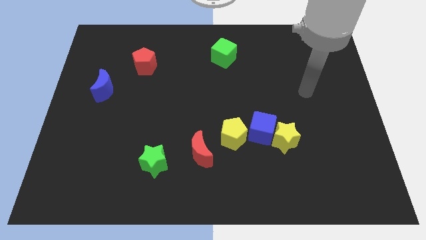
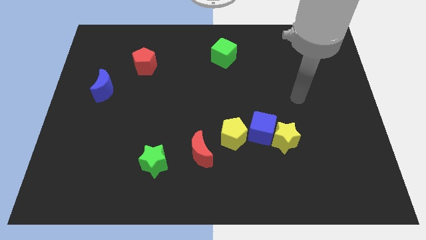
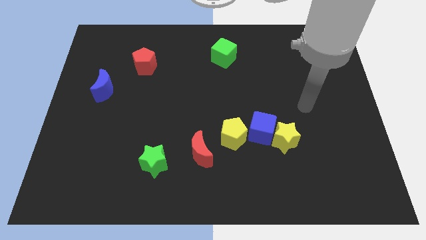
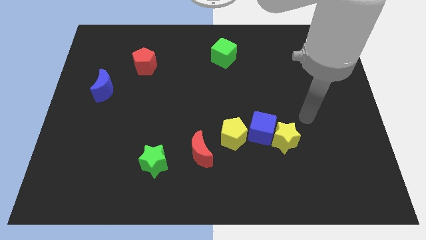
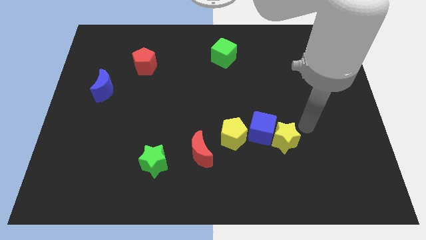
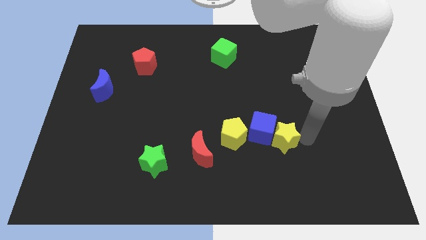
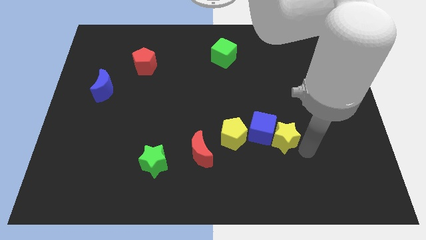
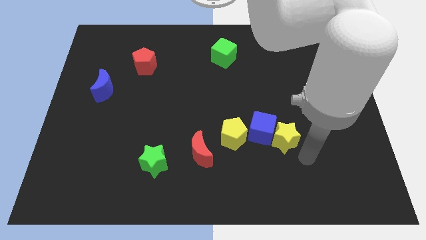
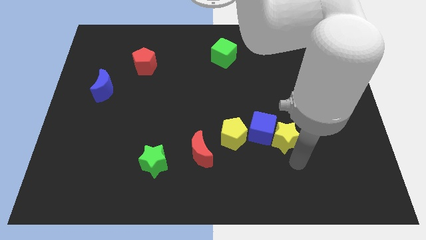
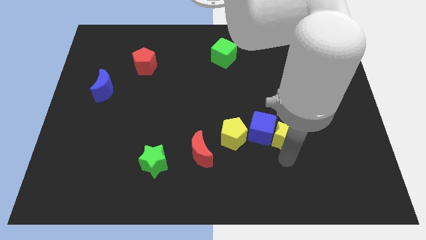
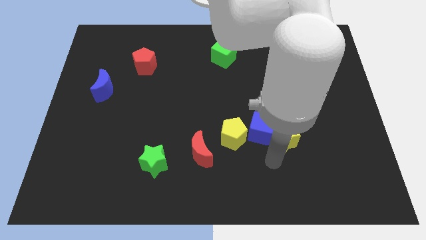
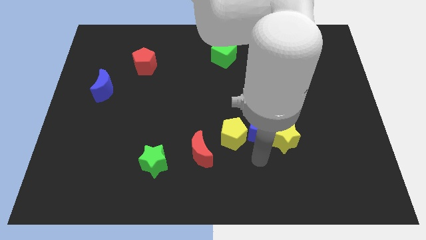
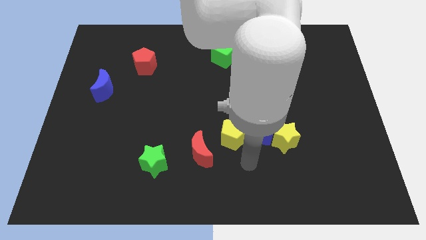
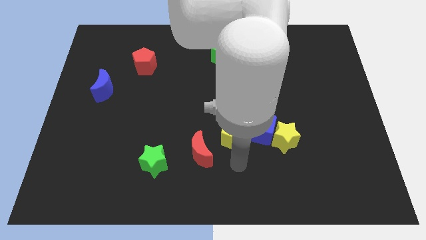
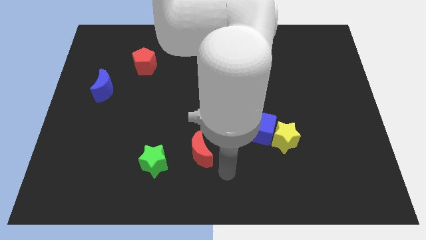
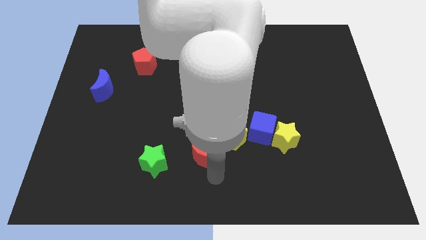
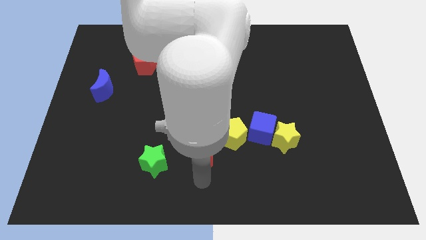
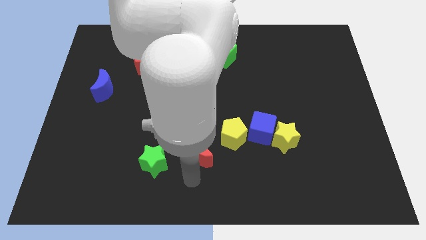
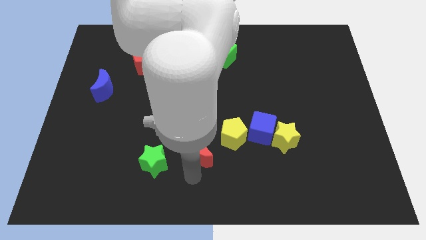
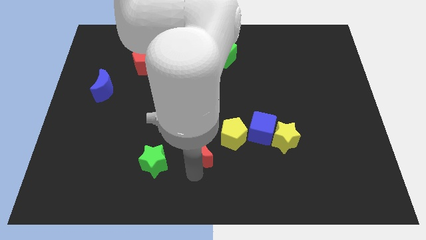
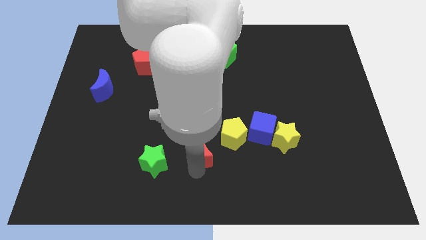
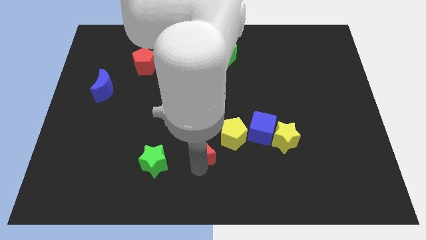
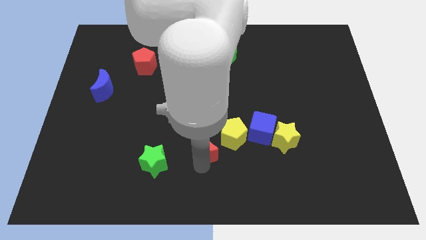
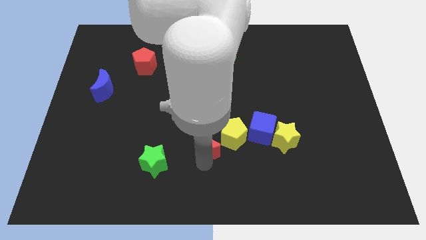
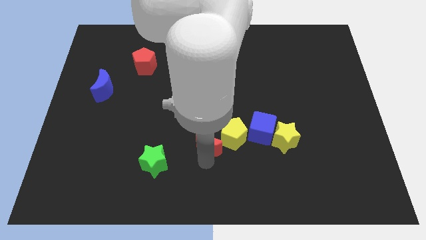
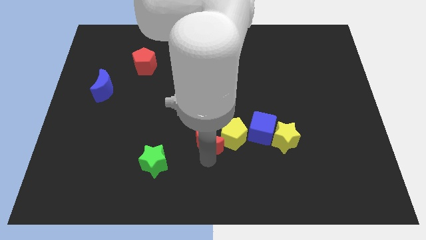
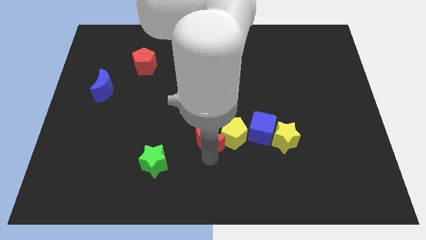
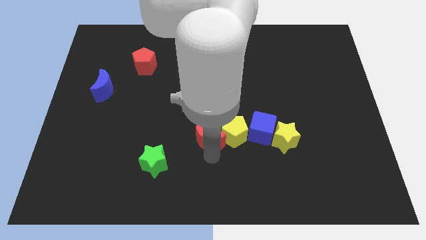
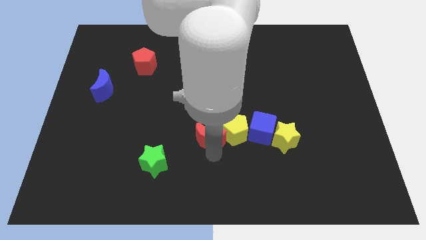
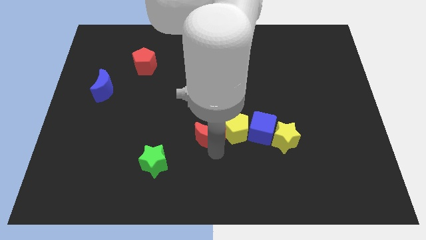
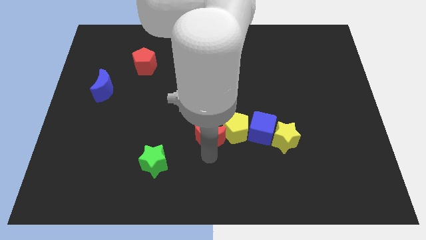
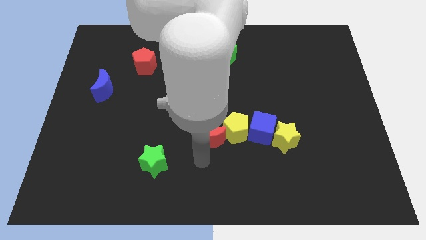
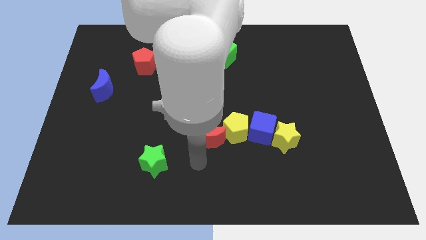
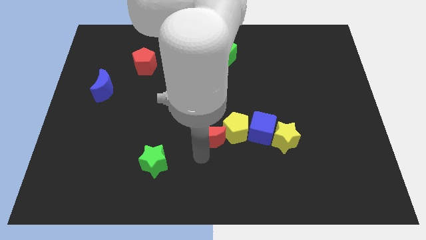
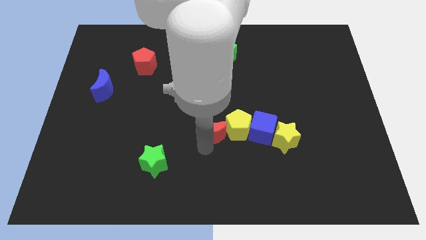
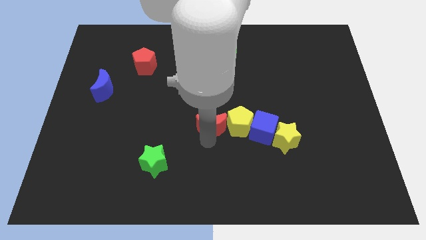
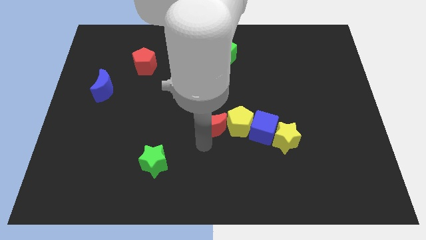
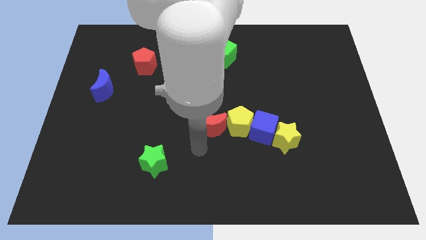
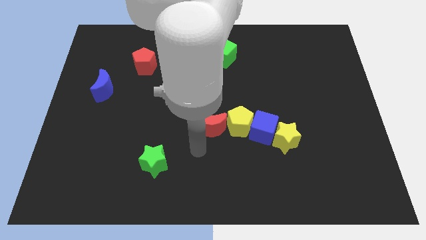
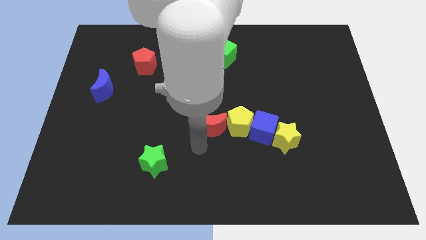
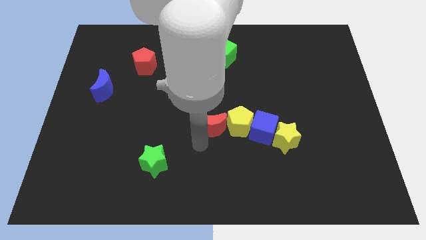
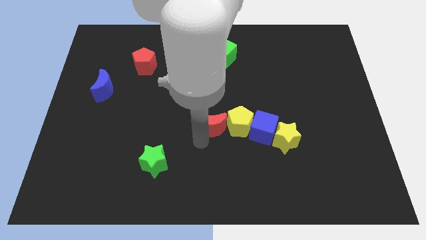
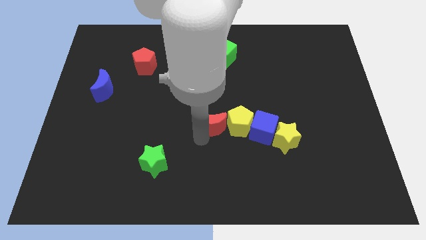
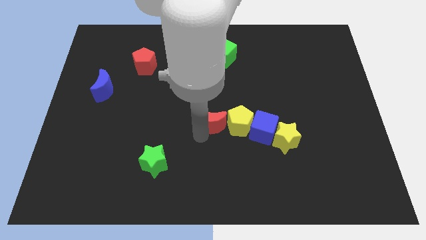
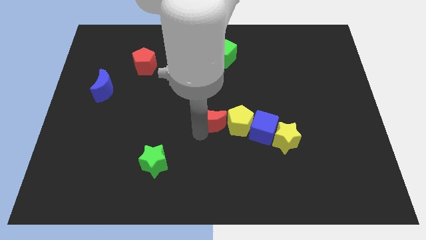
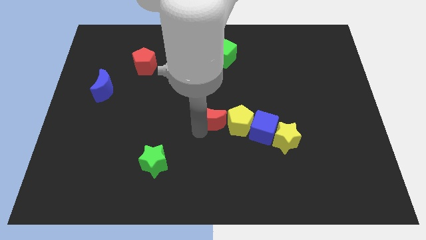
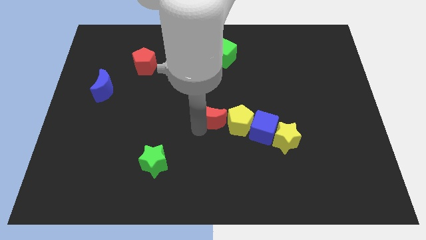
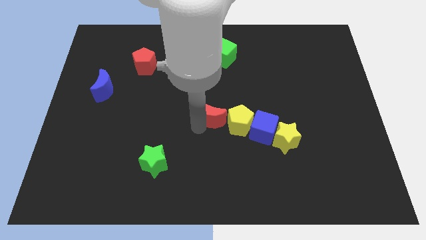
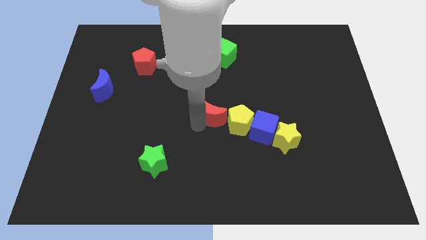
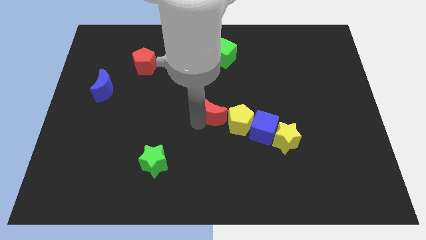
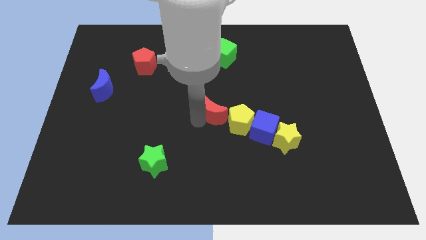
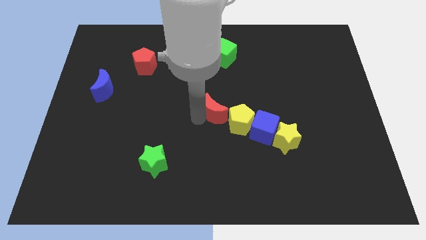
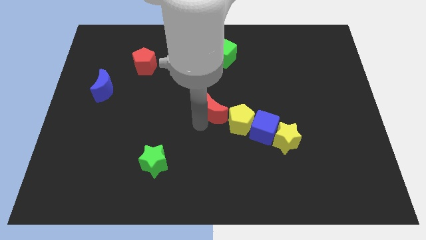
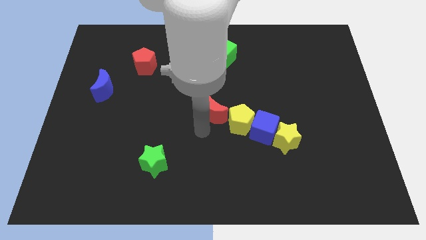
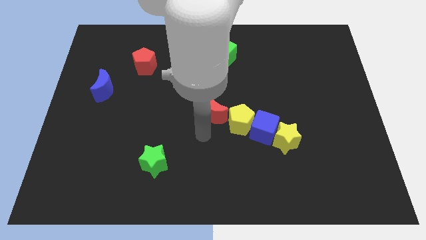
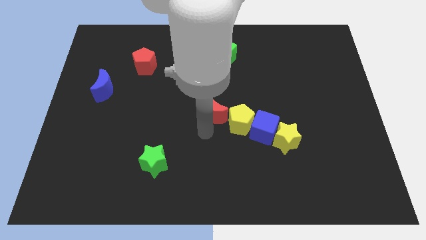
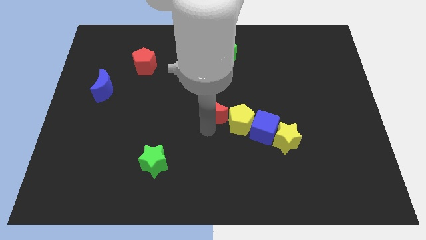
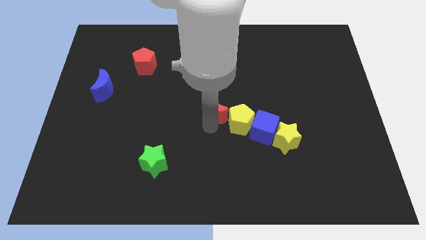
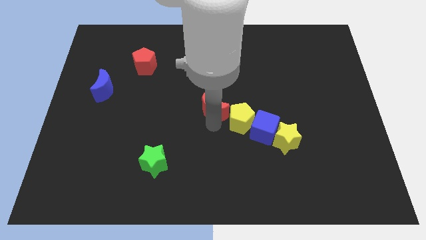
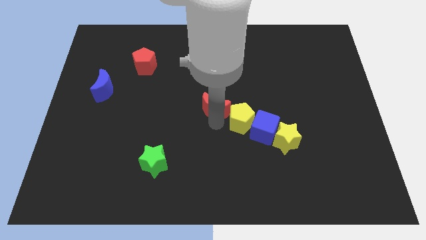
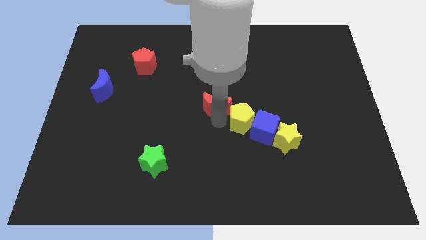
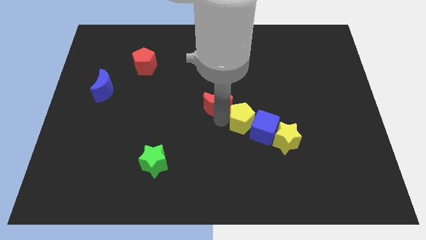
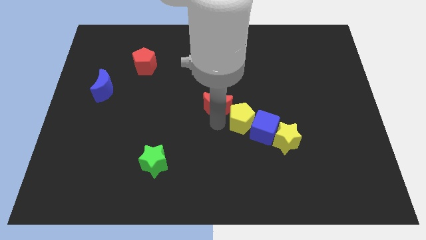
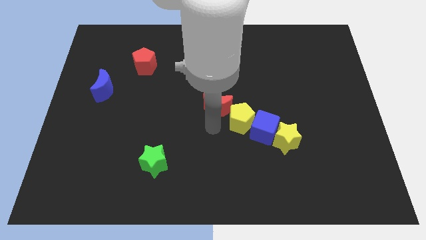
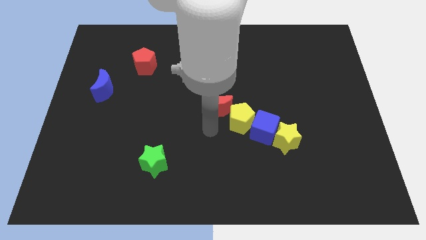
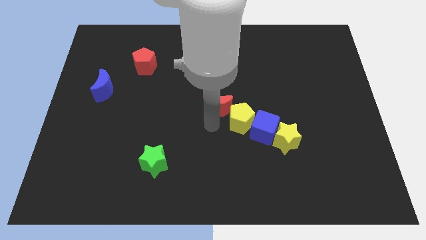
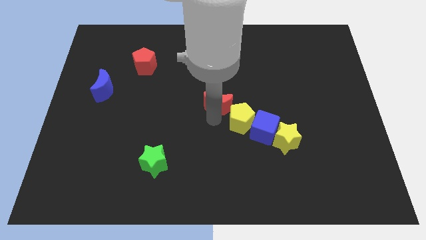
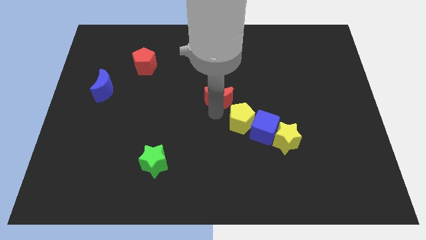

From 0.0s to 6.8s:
put the red moon to the bottom of the green cube

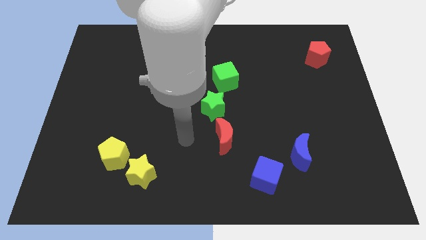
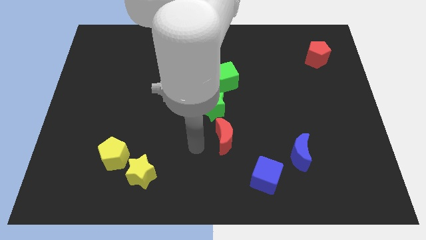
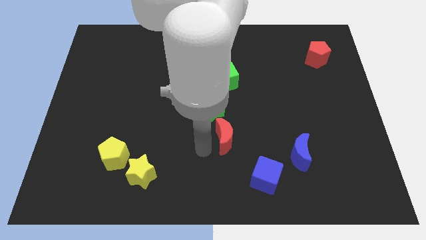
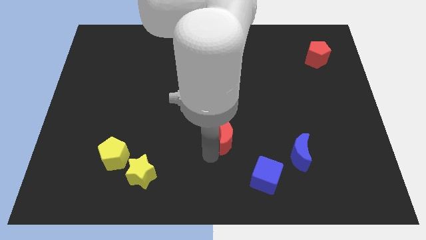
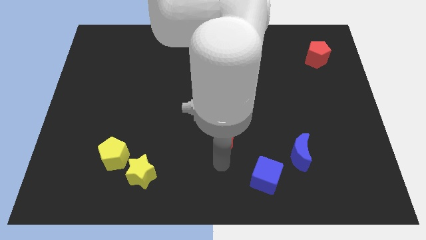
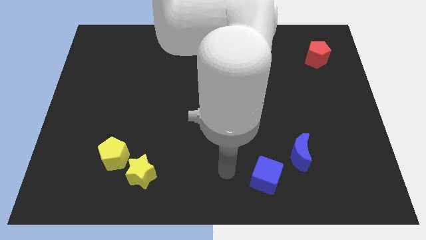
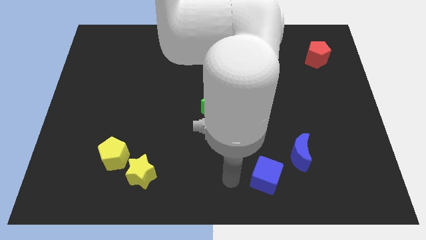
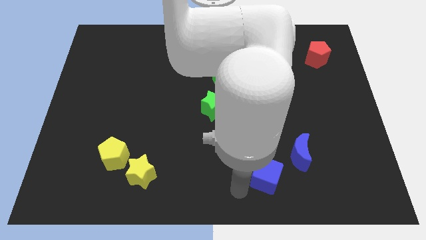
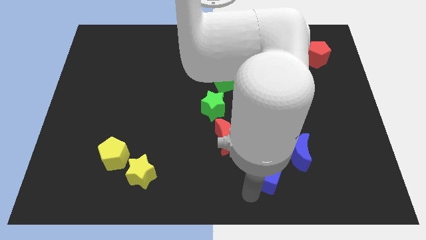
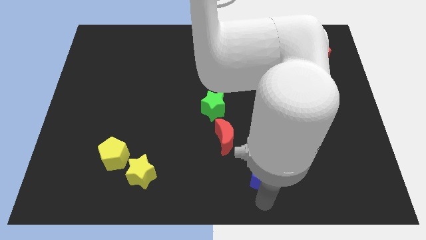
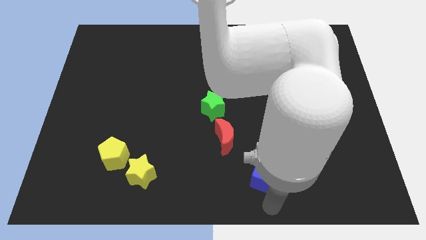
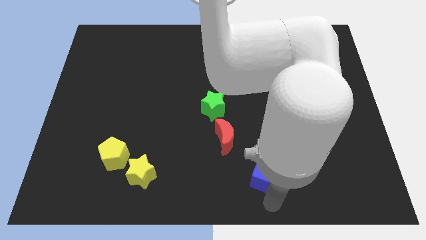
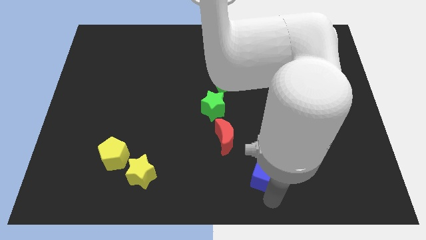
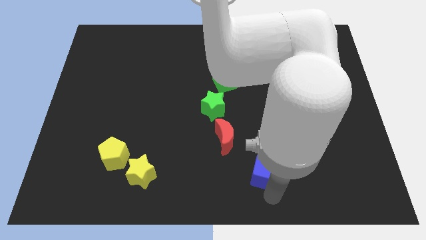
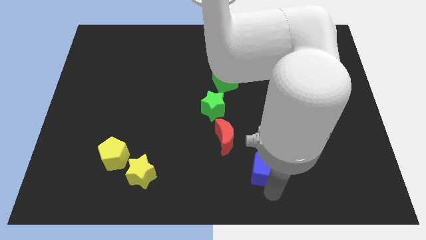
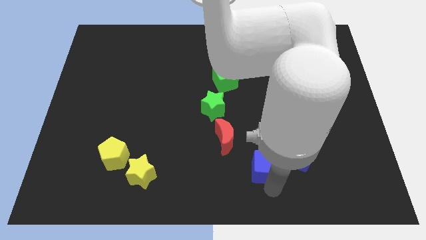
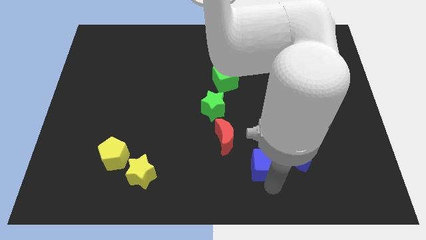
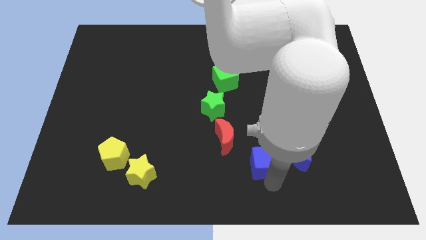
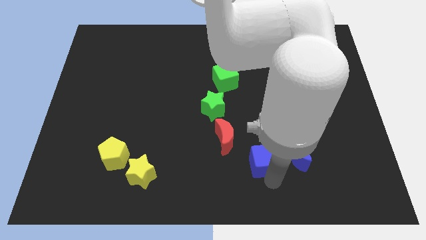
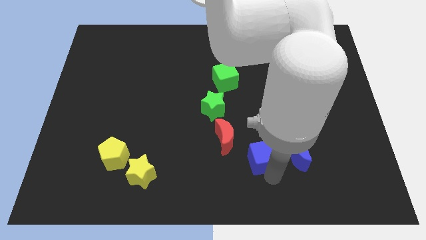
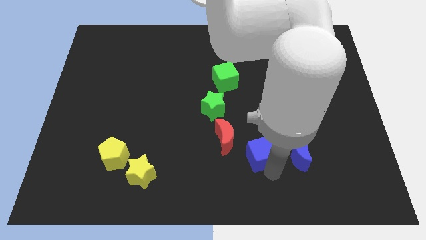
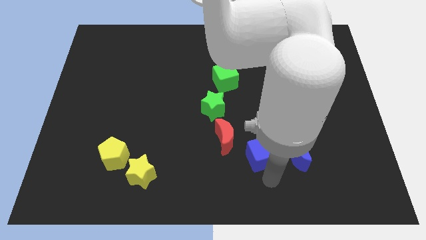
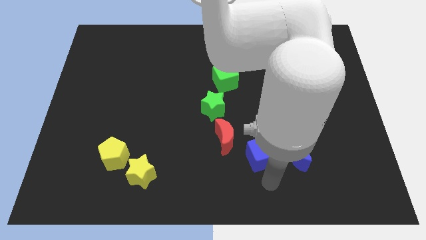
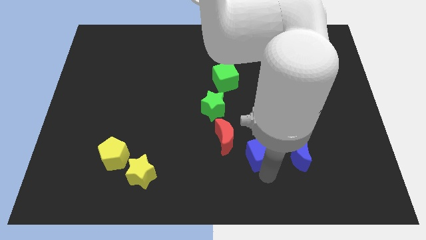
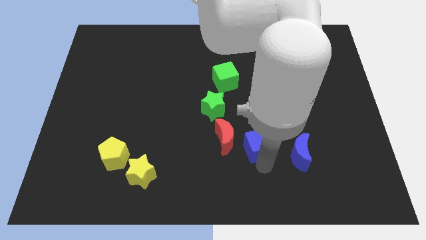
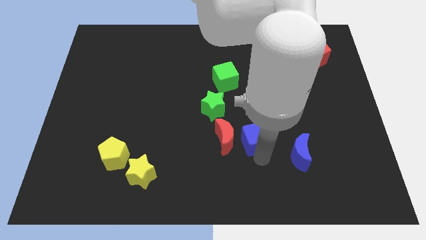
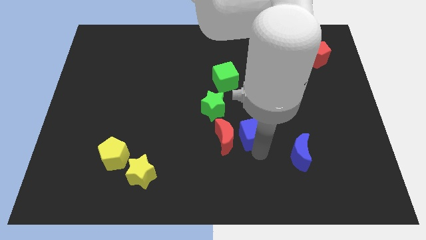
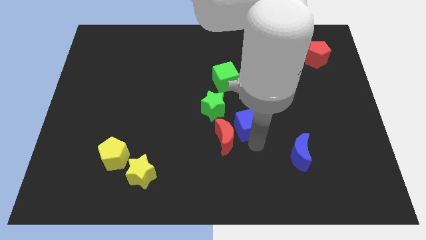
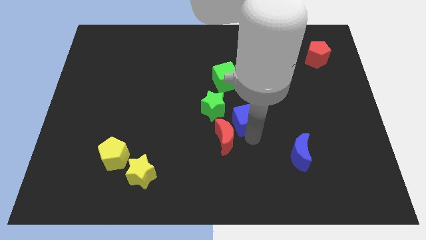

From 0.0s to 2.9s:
push the blue cube to the top side of the red moon
